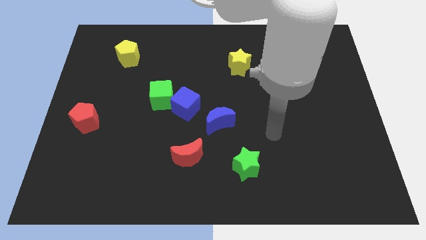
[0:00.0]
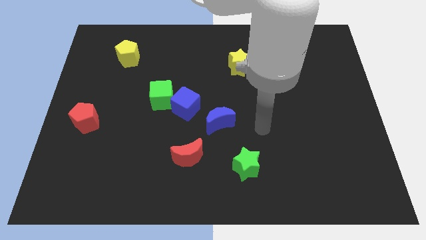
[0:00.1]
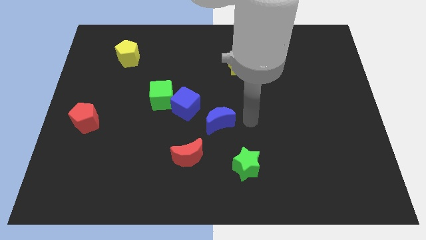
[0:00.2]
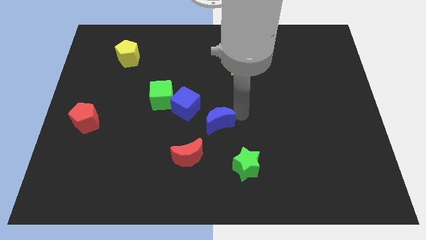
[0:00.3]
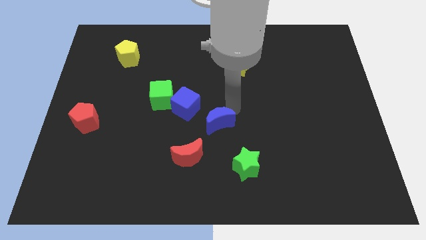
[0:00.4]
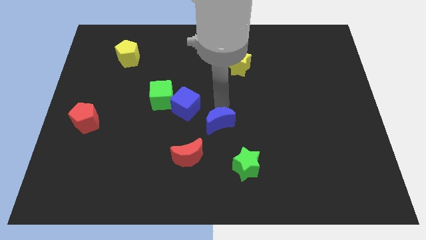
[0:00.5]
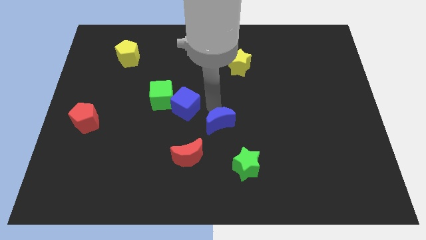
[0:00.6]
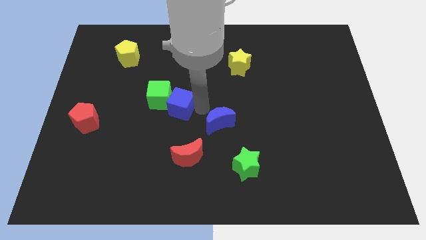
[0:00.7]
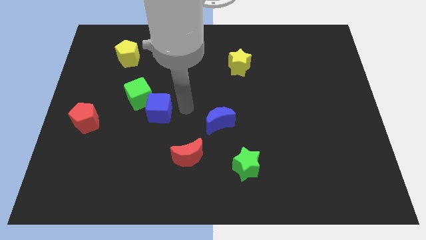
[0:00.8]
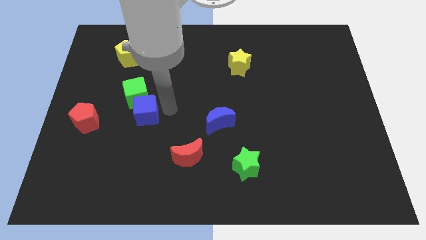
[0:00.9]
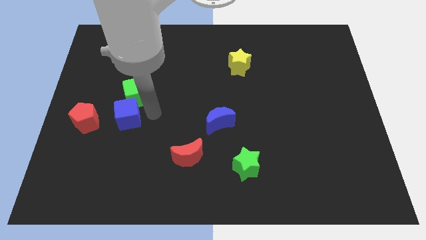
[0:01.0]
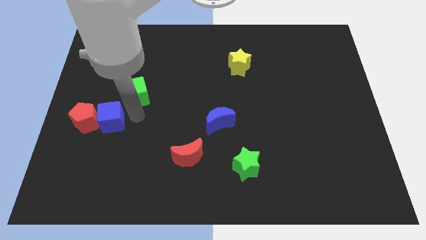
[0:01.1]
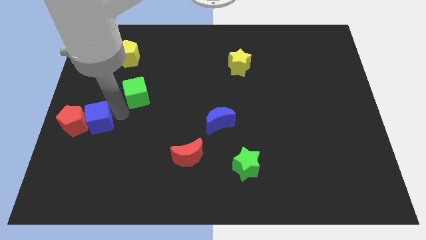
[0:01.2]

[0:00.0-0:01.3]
pull the green cube apart from the blue cube

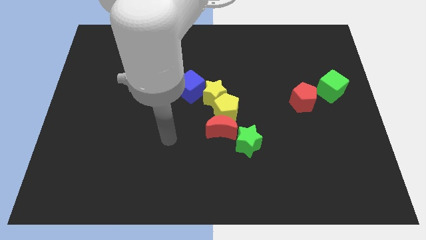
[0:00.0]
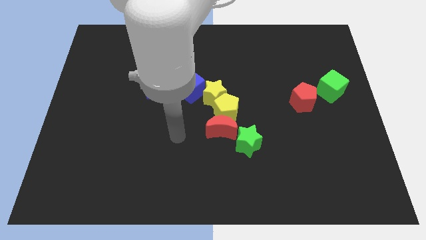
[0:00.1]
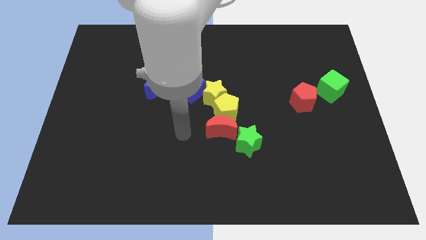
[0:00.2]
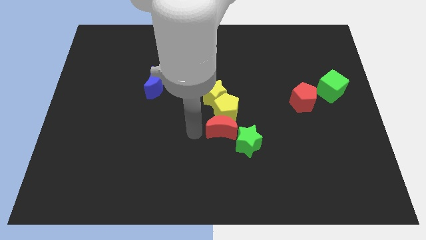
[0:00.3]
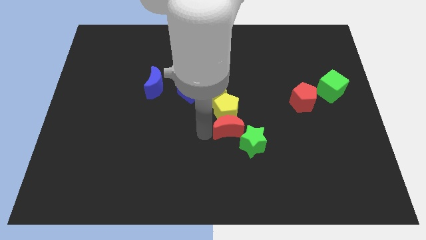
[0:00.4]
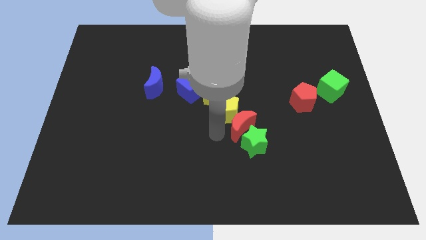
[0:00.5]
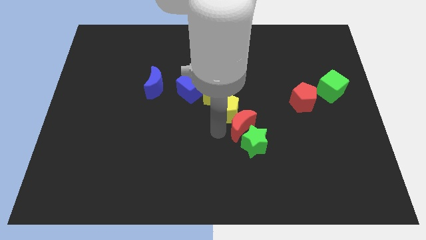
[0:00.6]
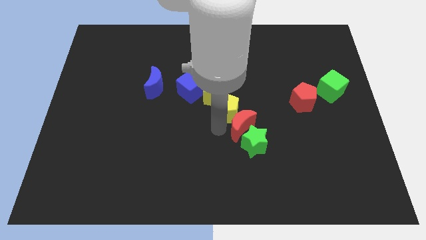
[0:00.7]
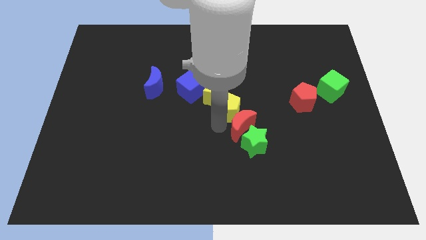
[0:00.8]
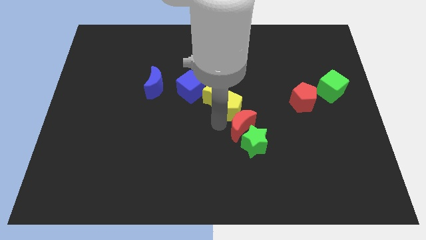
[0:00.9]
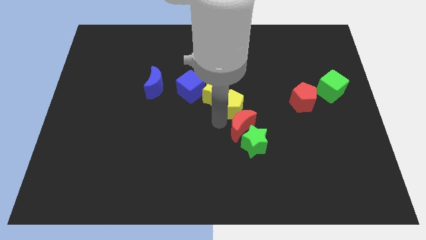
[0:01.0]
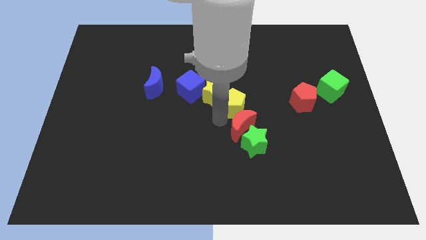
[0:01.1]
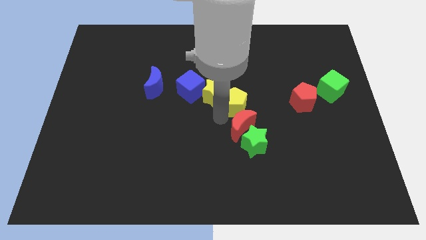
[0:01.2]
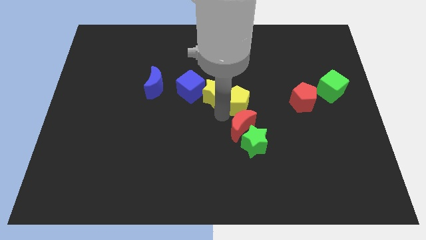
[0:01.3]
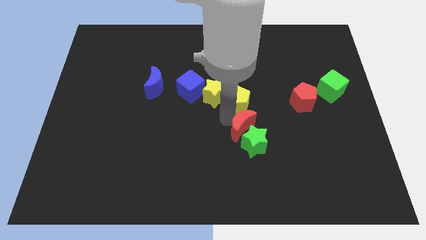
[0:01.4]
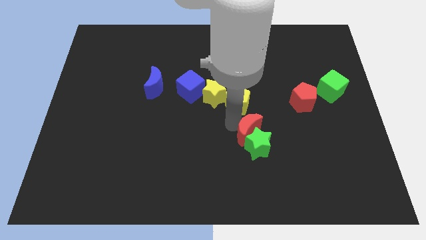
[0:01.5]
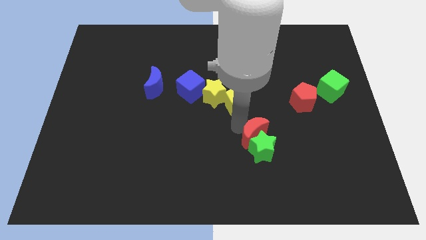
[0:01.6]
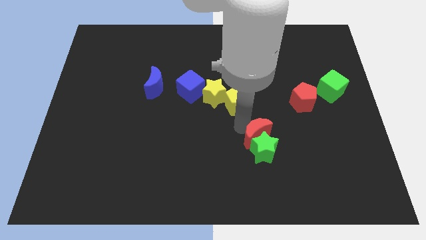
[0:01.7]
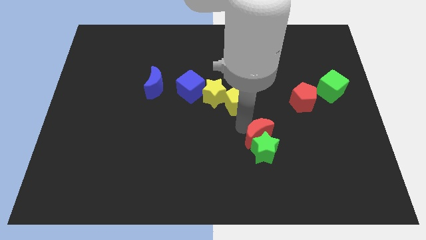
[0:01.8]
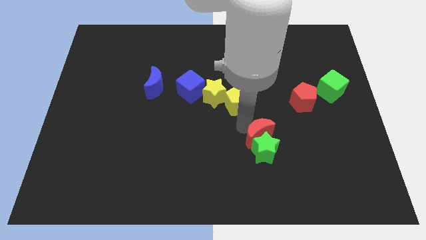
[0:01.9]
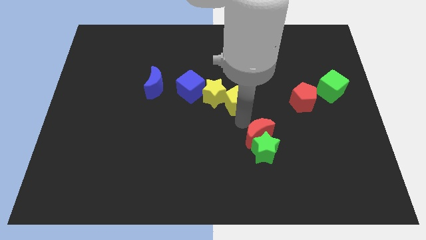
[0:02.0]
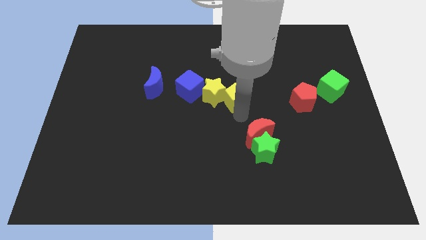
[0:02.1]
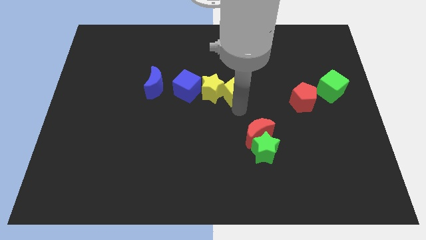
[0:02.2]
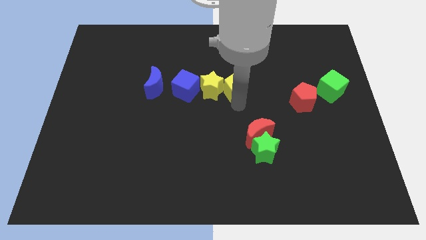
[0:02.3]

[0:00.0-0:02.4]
pull the yellow pentagon apart from the red moon, yellow star, and green star

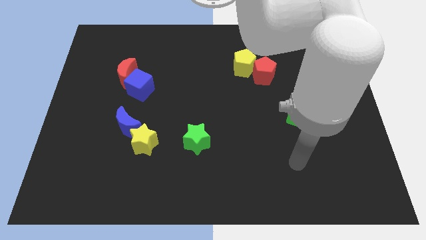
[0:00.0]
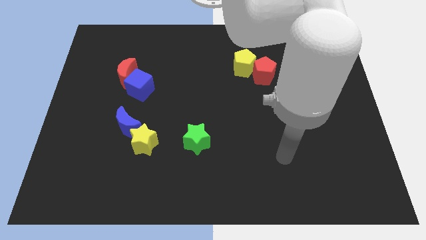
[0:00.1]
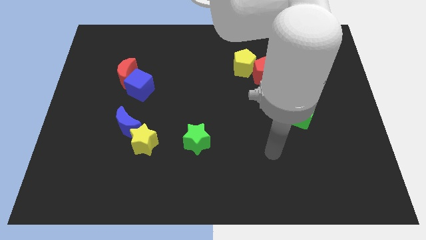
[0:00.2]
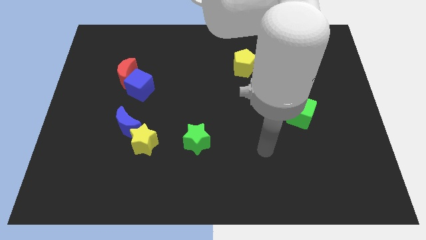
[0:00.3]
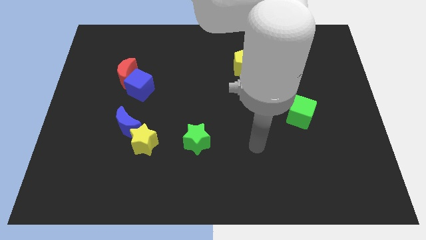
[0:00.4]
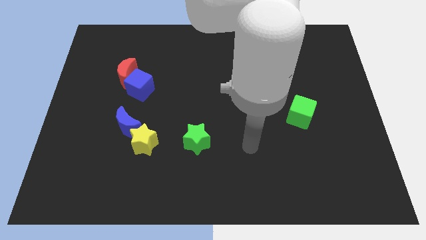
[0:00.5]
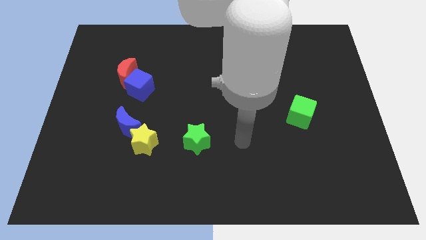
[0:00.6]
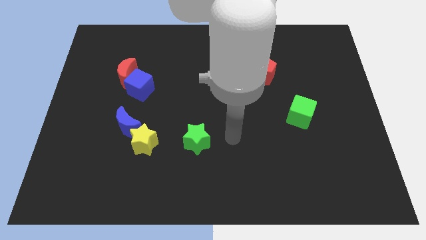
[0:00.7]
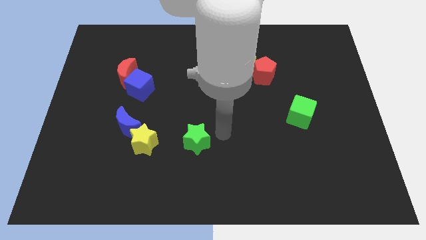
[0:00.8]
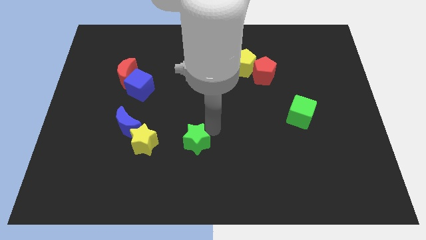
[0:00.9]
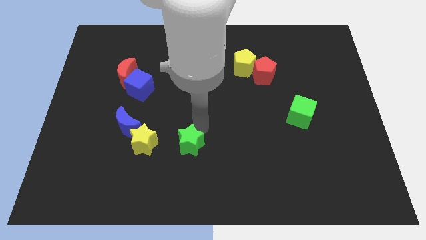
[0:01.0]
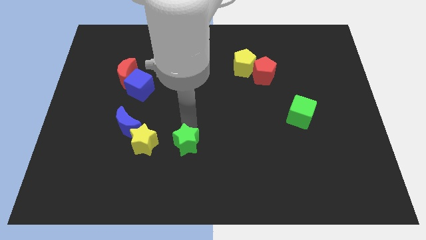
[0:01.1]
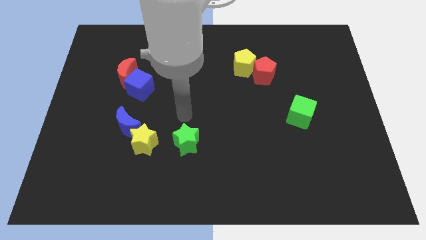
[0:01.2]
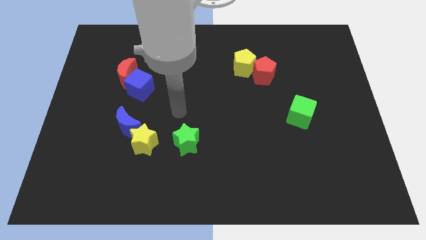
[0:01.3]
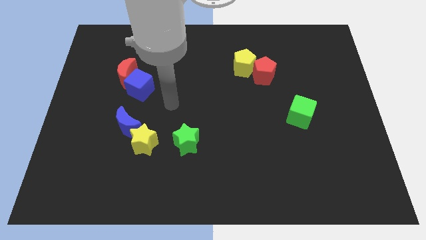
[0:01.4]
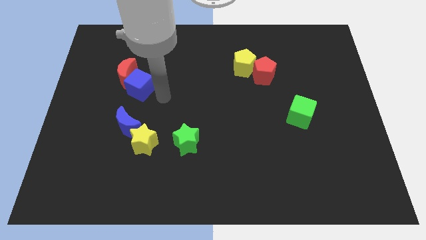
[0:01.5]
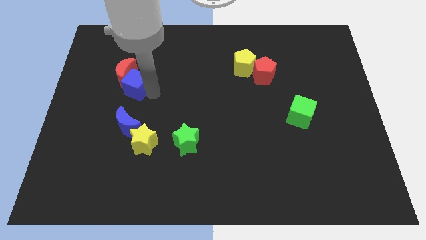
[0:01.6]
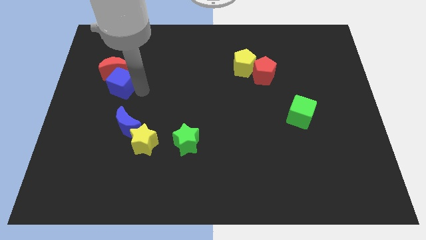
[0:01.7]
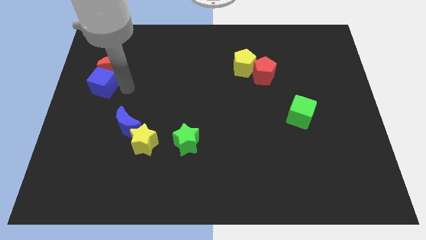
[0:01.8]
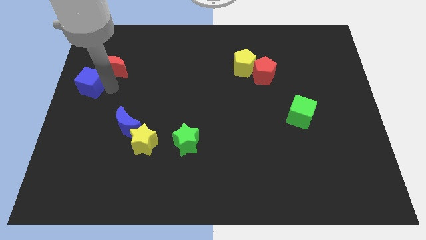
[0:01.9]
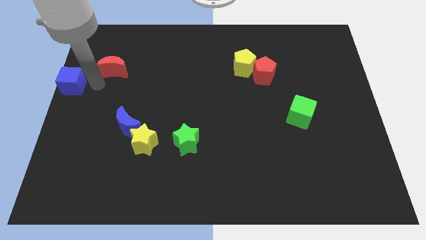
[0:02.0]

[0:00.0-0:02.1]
separate the red moon from the blue cube

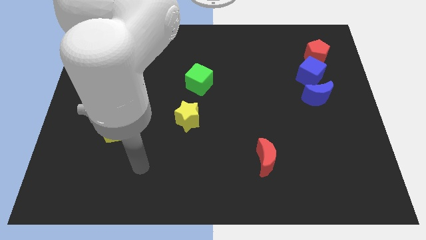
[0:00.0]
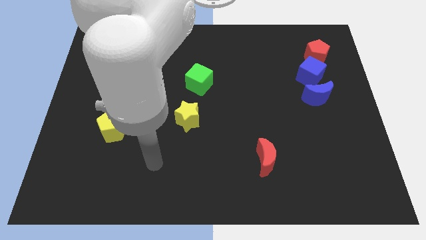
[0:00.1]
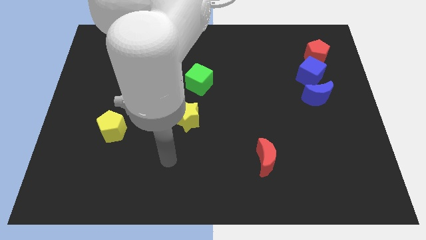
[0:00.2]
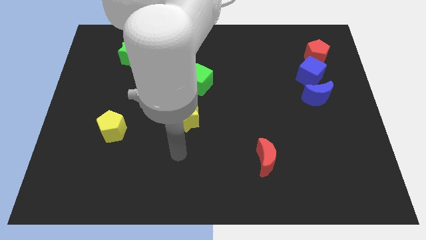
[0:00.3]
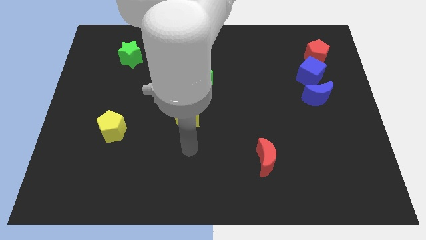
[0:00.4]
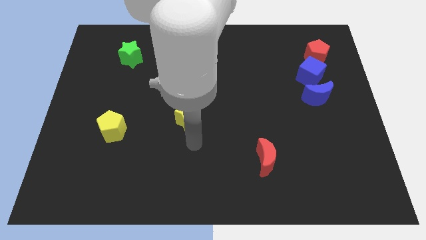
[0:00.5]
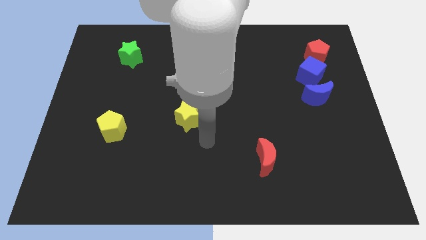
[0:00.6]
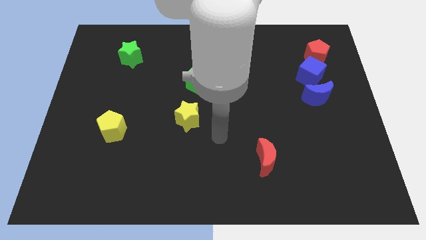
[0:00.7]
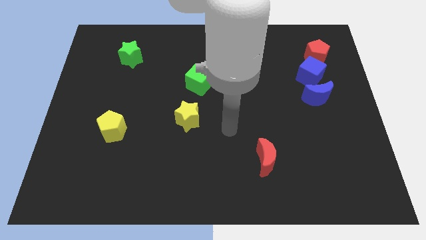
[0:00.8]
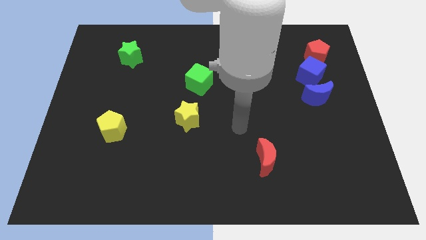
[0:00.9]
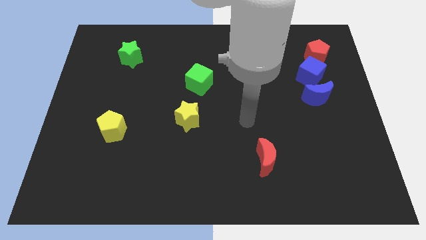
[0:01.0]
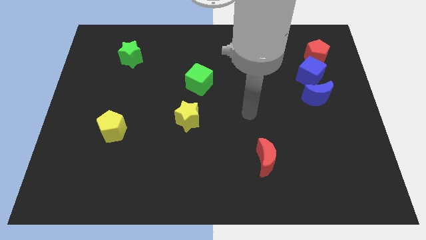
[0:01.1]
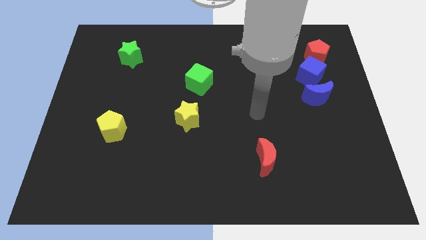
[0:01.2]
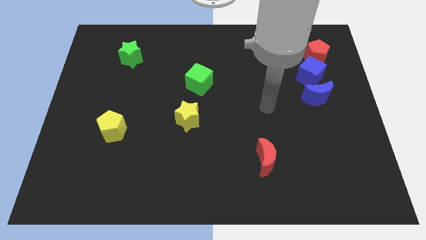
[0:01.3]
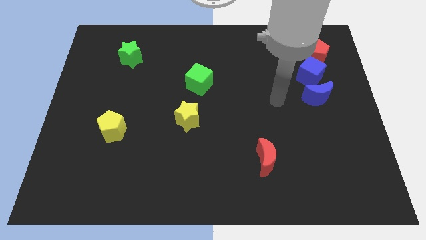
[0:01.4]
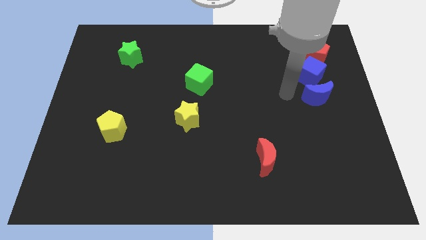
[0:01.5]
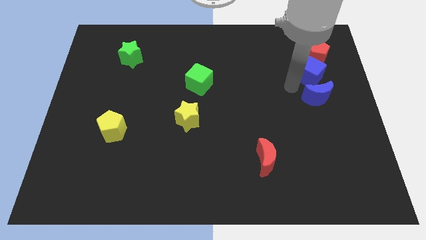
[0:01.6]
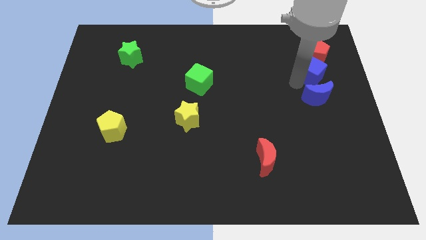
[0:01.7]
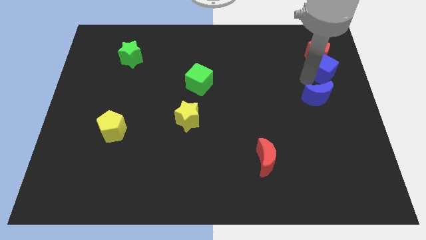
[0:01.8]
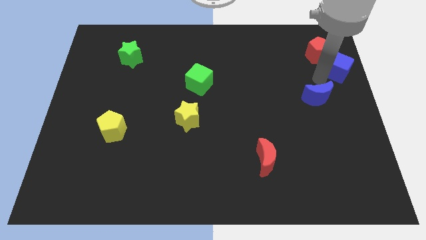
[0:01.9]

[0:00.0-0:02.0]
pull the blue moon apart from the blue cube

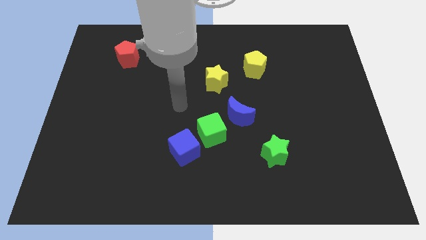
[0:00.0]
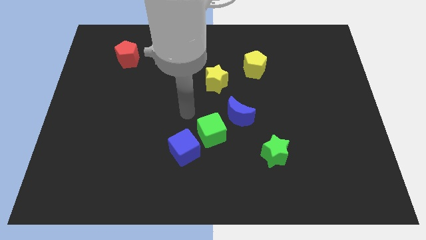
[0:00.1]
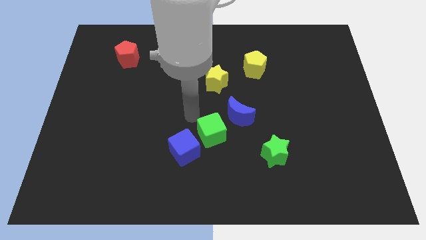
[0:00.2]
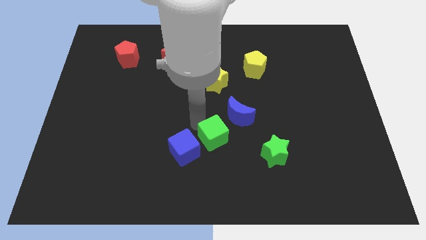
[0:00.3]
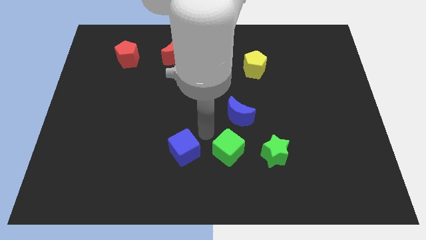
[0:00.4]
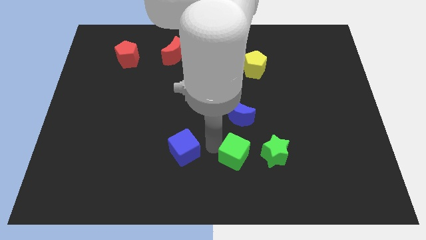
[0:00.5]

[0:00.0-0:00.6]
move the blue cube away from the green cube

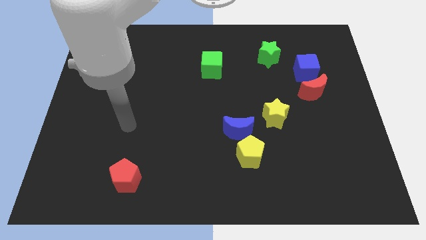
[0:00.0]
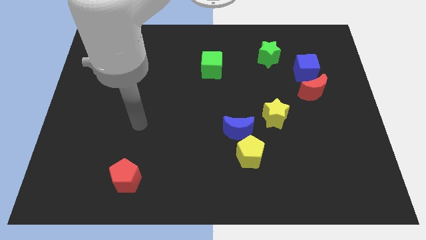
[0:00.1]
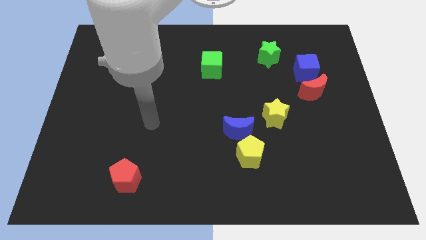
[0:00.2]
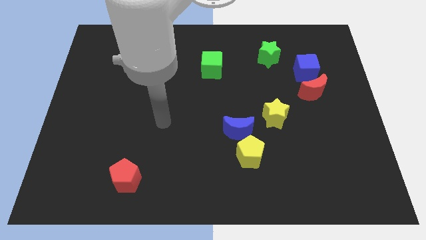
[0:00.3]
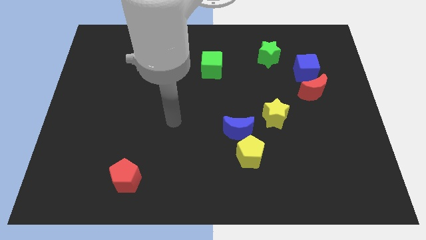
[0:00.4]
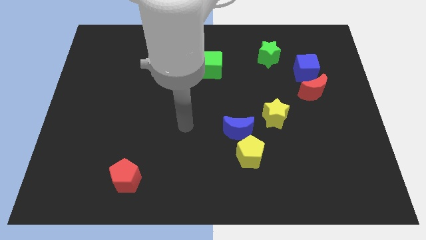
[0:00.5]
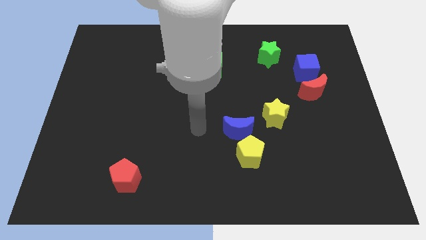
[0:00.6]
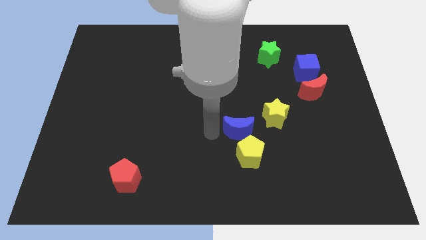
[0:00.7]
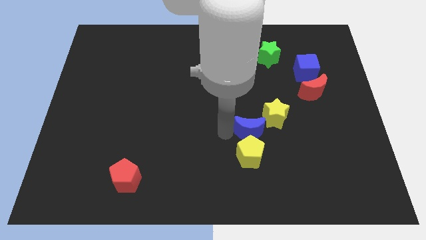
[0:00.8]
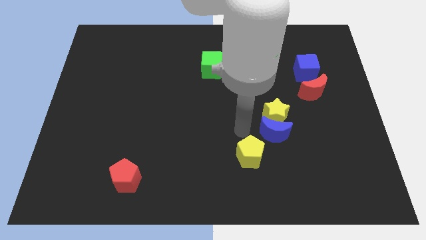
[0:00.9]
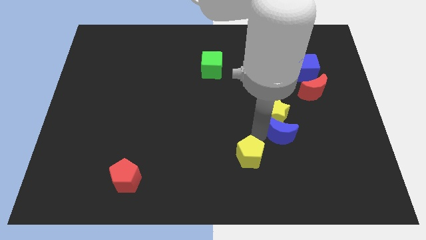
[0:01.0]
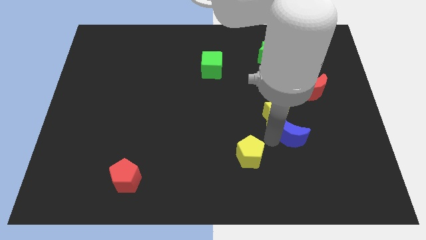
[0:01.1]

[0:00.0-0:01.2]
separate the yellow pentagon from the blue moon
